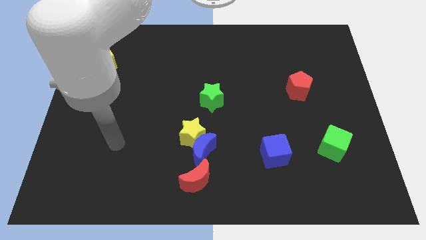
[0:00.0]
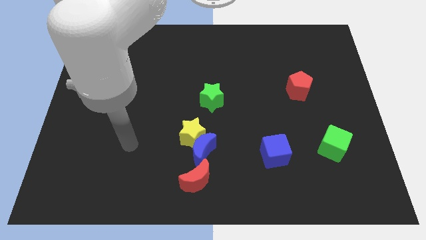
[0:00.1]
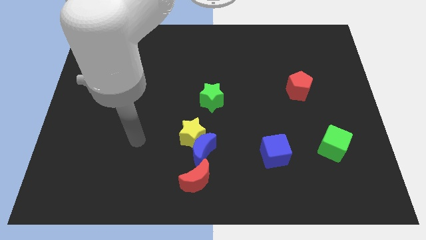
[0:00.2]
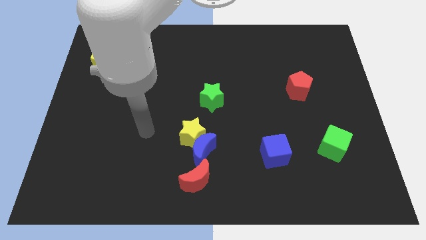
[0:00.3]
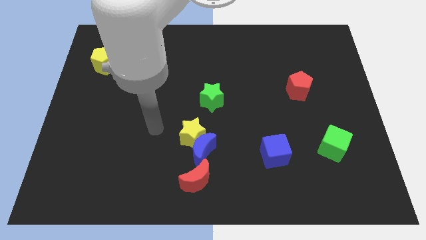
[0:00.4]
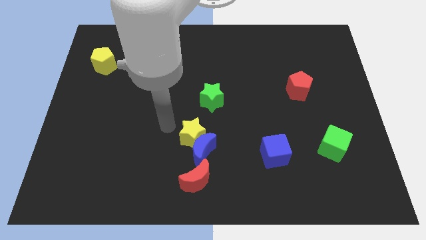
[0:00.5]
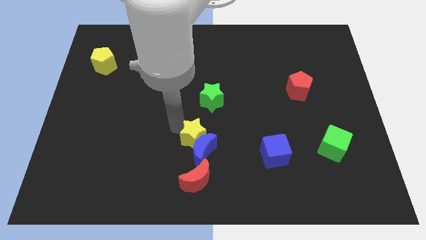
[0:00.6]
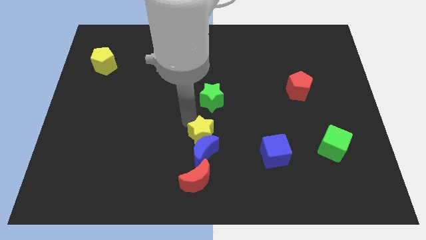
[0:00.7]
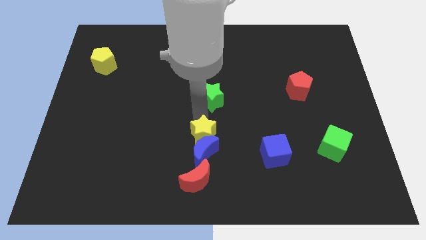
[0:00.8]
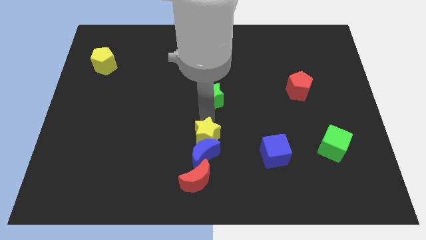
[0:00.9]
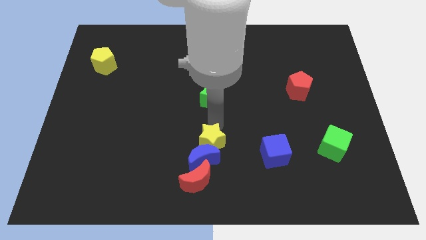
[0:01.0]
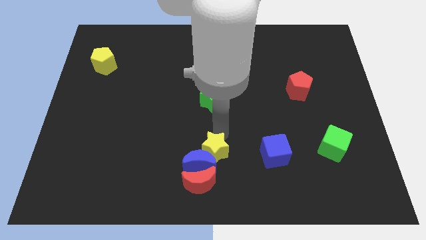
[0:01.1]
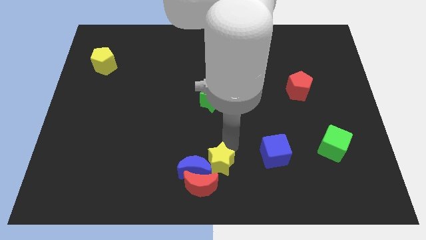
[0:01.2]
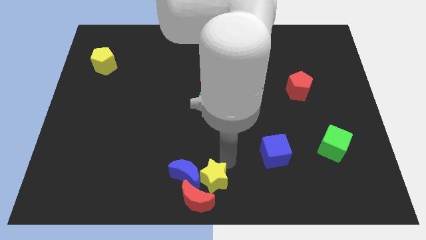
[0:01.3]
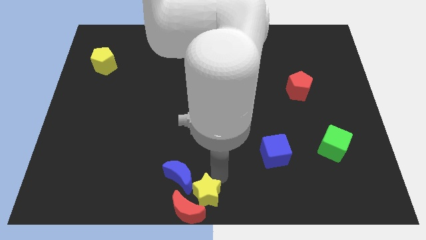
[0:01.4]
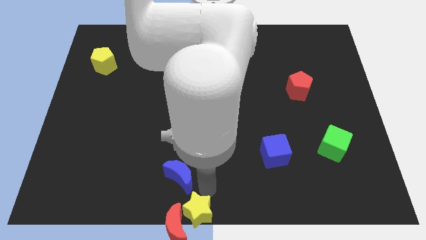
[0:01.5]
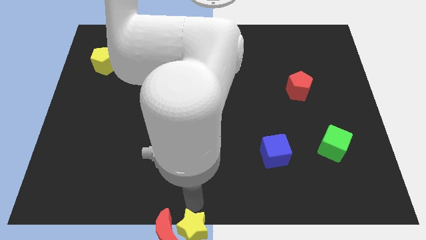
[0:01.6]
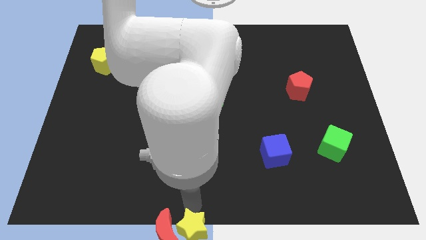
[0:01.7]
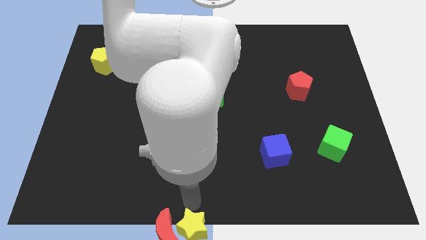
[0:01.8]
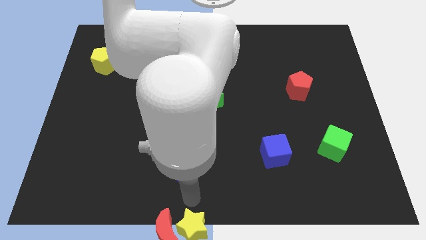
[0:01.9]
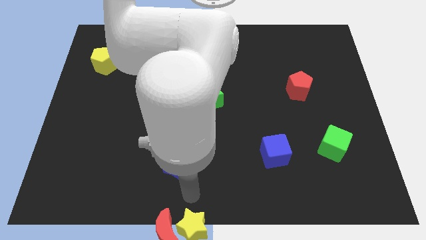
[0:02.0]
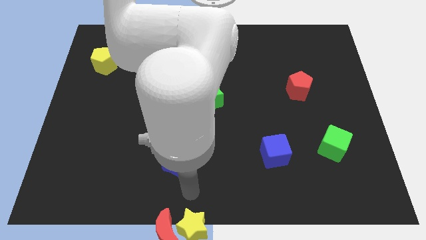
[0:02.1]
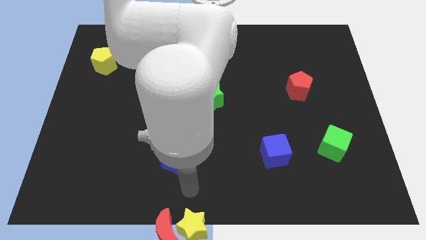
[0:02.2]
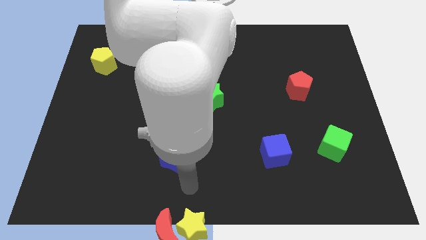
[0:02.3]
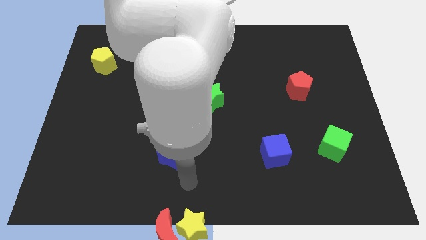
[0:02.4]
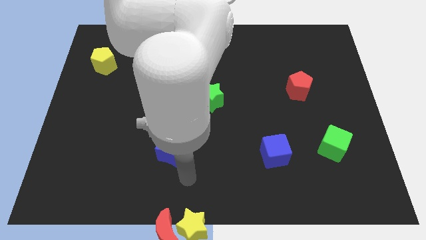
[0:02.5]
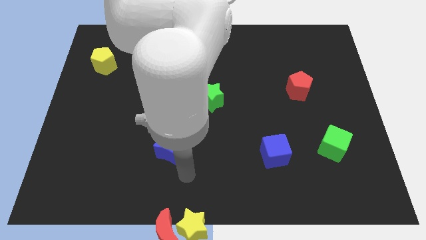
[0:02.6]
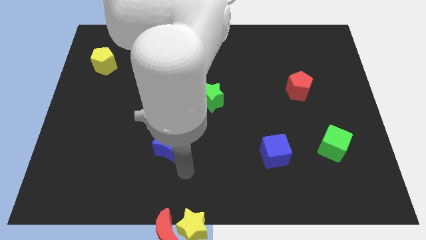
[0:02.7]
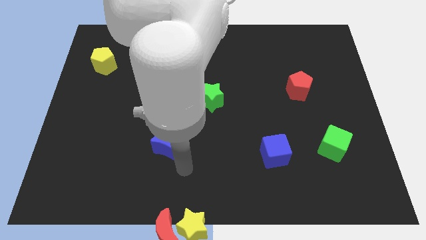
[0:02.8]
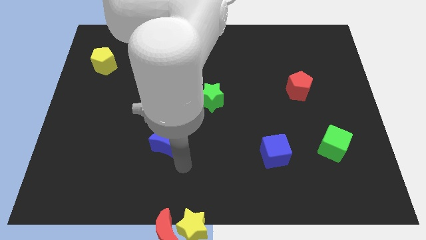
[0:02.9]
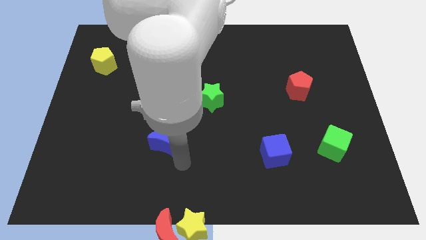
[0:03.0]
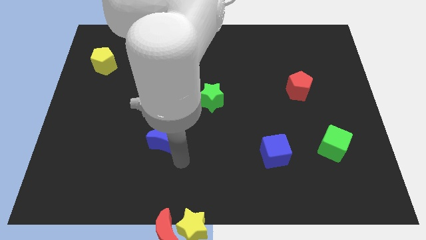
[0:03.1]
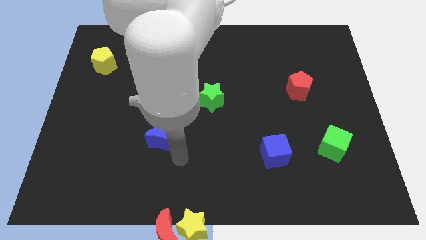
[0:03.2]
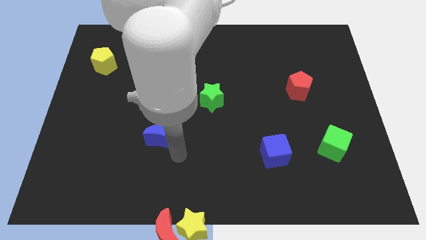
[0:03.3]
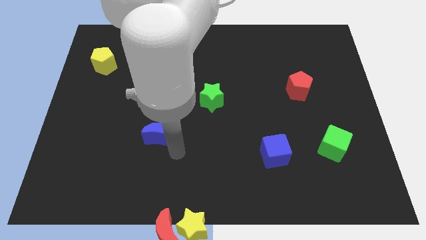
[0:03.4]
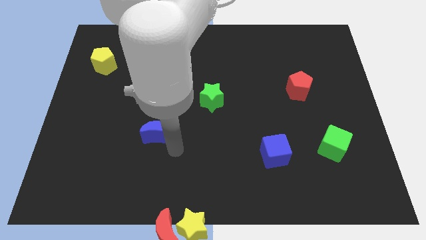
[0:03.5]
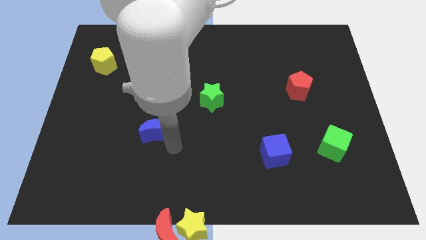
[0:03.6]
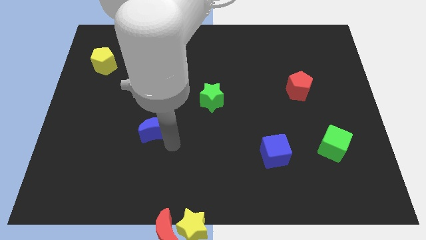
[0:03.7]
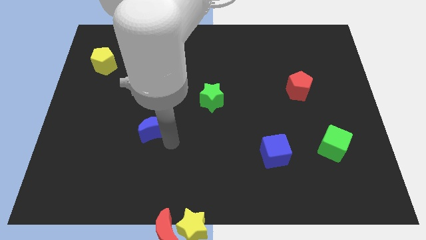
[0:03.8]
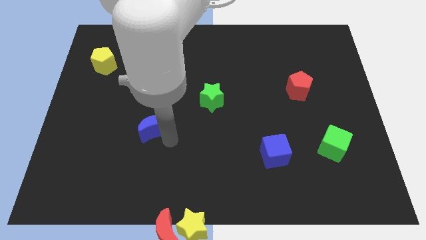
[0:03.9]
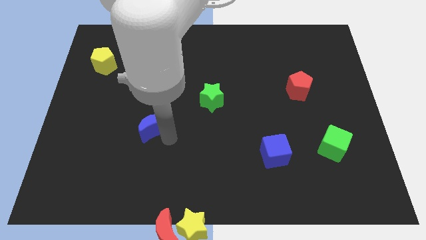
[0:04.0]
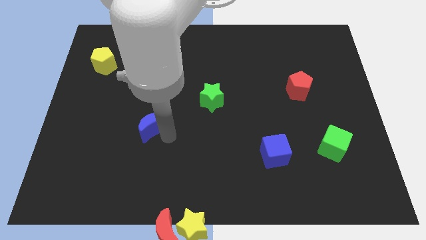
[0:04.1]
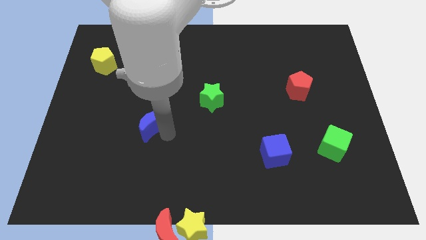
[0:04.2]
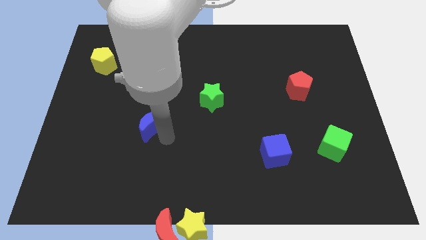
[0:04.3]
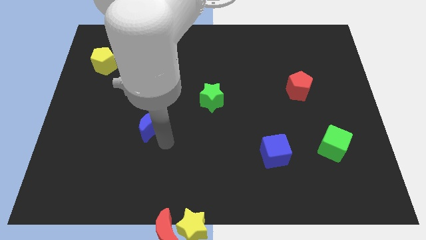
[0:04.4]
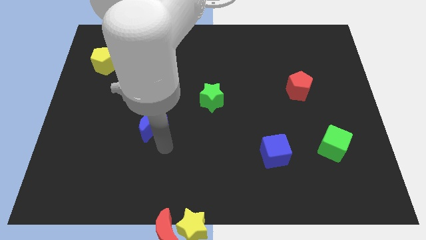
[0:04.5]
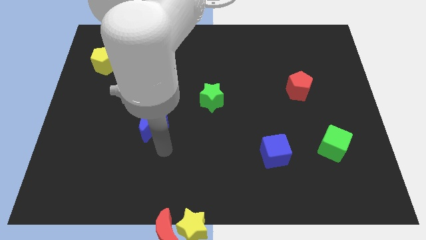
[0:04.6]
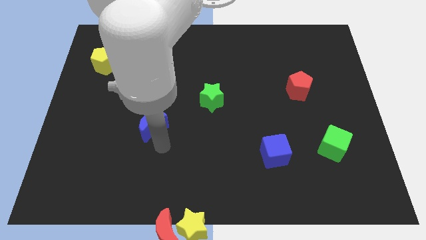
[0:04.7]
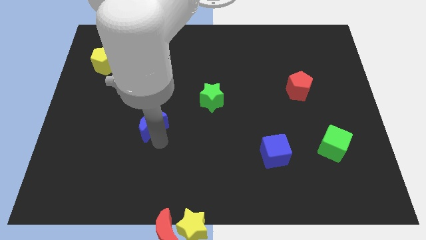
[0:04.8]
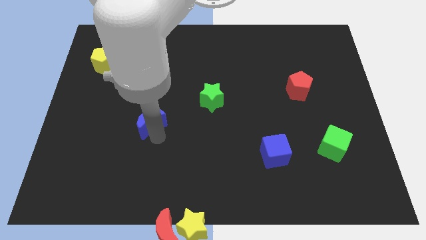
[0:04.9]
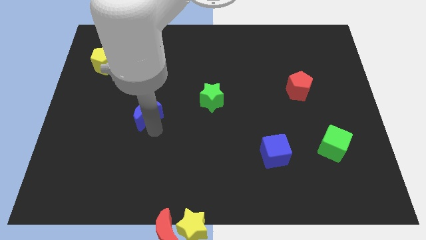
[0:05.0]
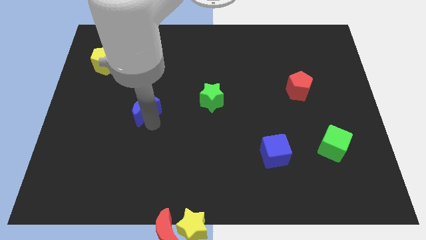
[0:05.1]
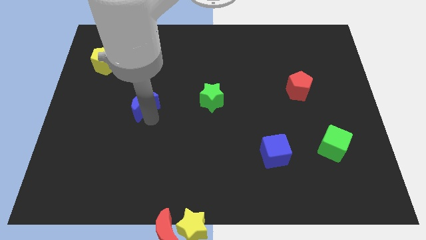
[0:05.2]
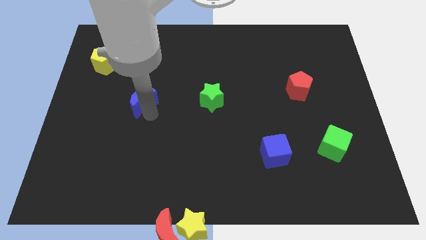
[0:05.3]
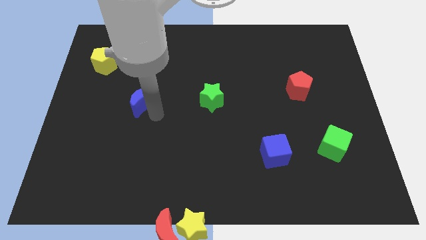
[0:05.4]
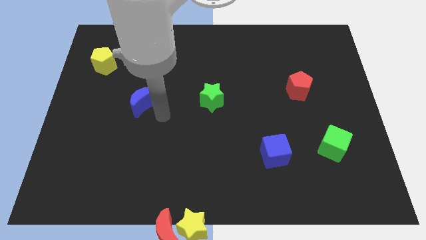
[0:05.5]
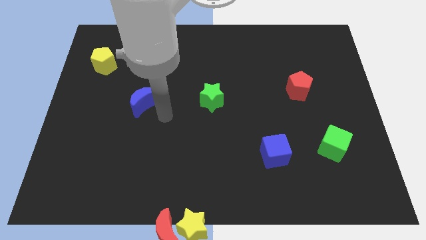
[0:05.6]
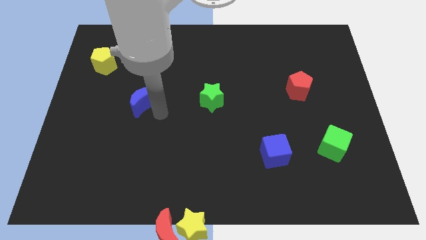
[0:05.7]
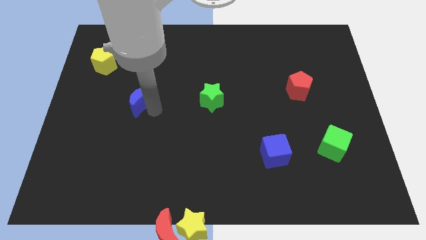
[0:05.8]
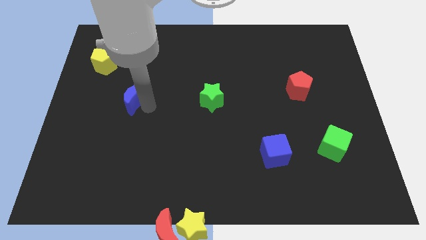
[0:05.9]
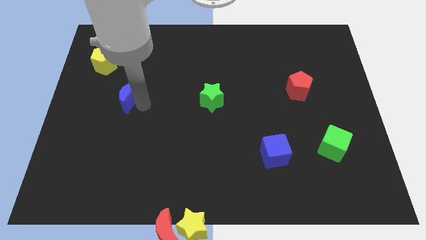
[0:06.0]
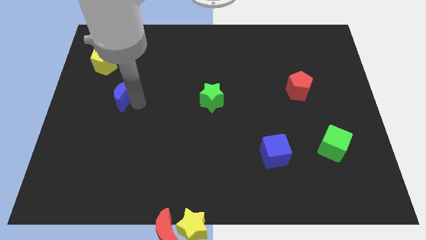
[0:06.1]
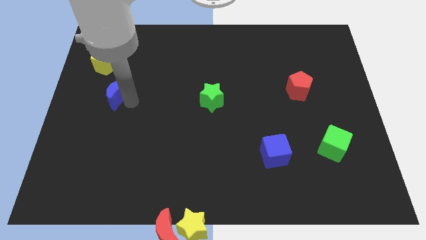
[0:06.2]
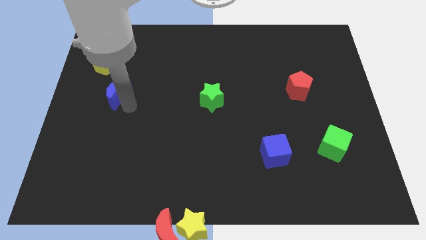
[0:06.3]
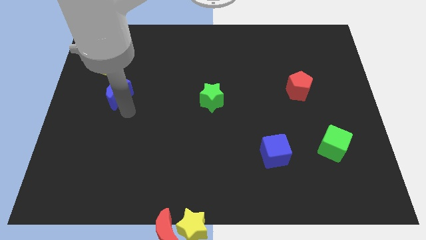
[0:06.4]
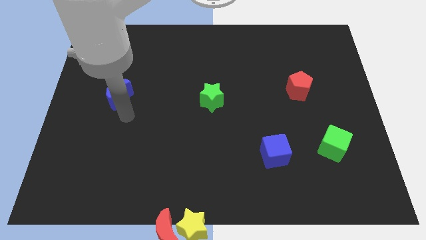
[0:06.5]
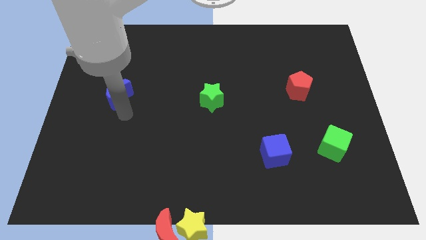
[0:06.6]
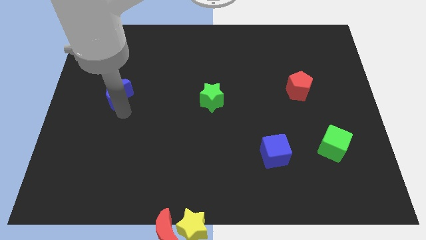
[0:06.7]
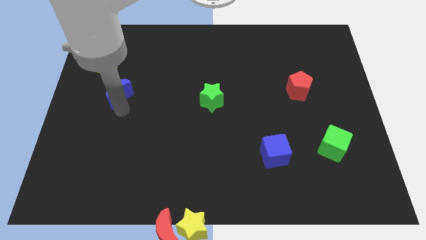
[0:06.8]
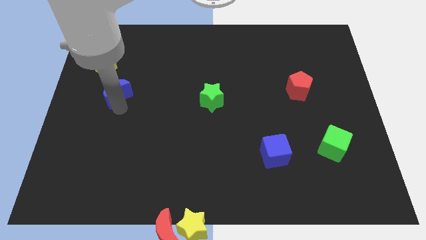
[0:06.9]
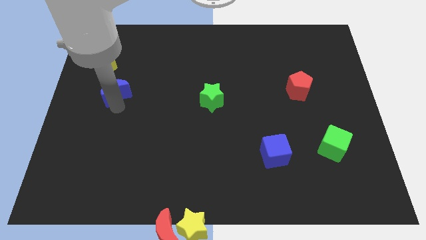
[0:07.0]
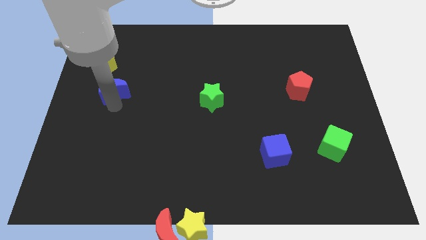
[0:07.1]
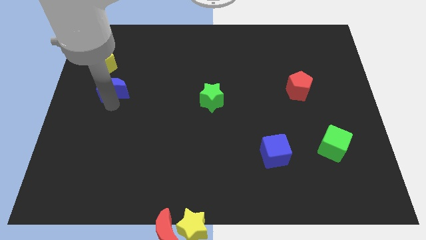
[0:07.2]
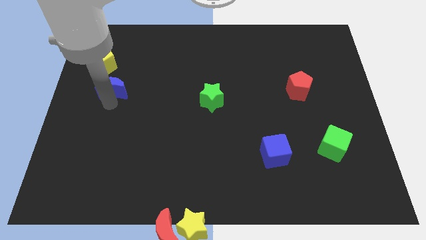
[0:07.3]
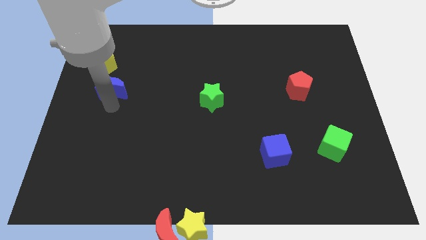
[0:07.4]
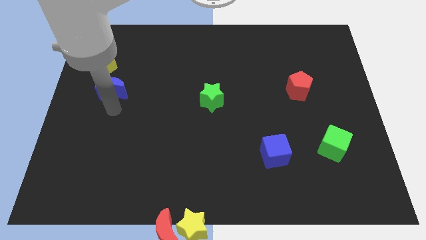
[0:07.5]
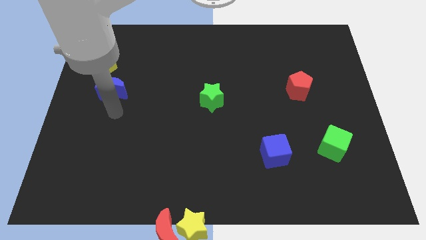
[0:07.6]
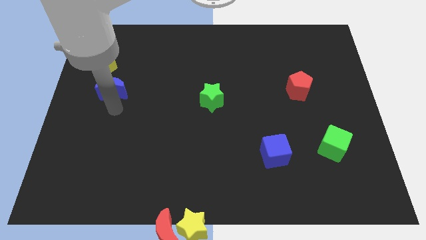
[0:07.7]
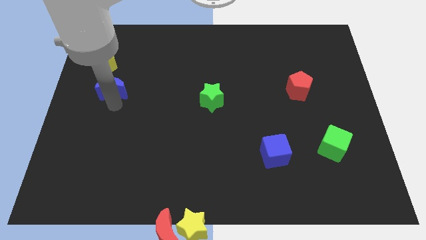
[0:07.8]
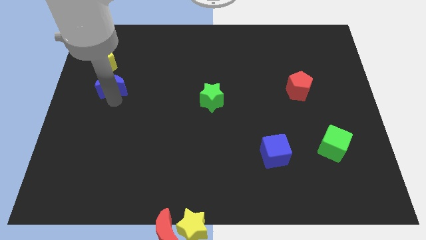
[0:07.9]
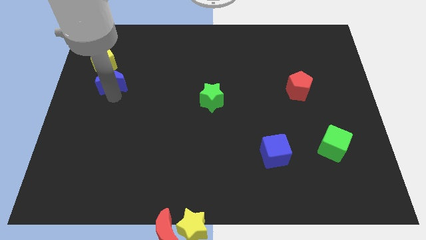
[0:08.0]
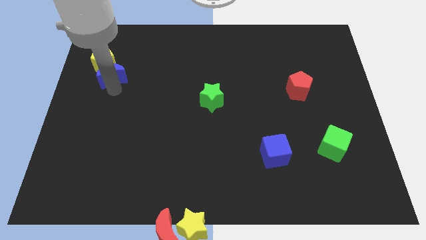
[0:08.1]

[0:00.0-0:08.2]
slide the blue moon next to the yellow pentagon
